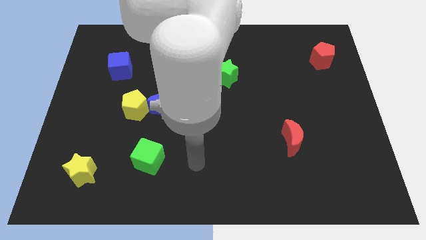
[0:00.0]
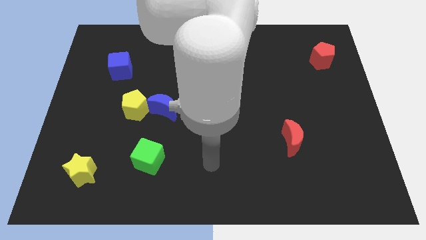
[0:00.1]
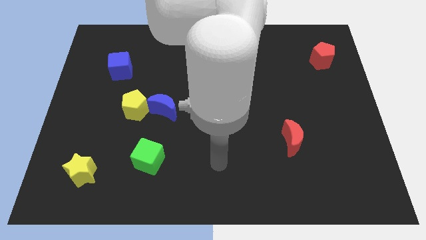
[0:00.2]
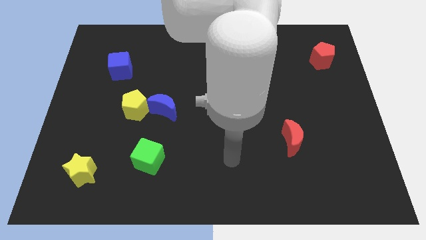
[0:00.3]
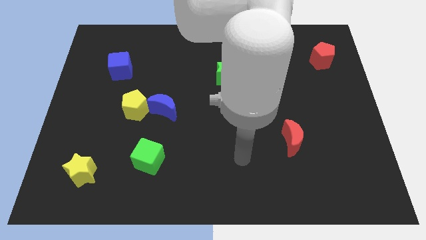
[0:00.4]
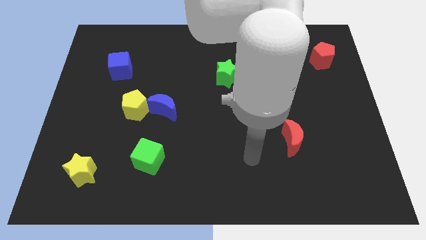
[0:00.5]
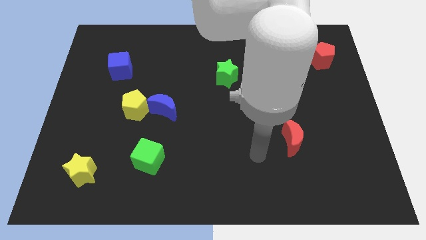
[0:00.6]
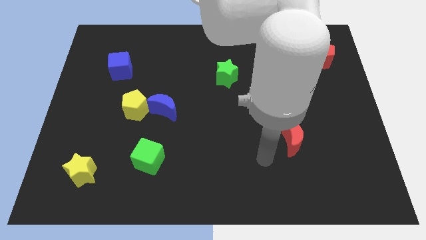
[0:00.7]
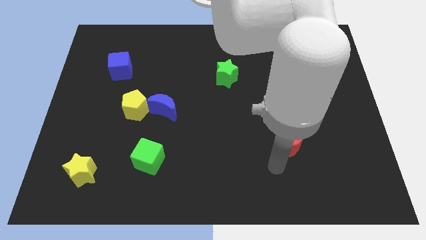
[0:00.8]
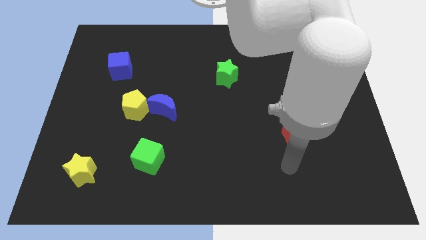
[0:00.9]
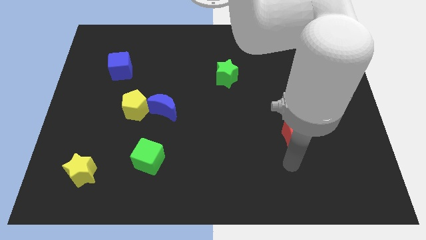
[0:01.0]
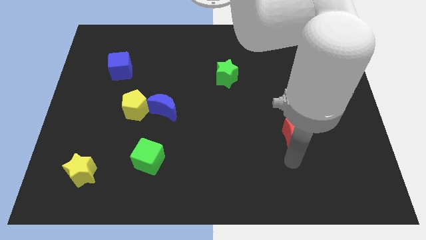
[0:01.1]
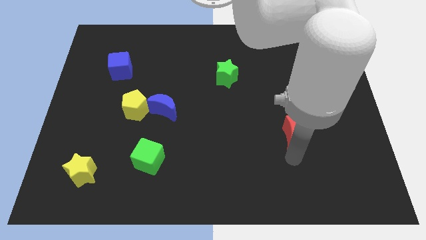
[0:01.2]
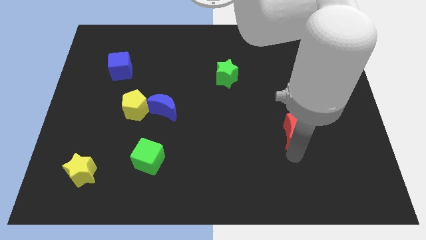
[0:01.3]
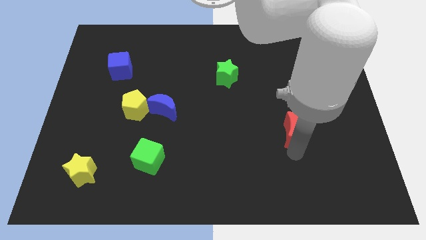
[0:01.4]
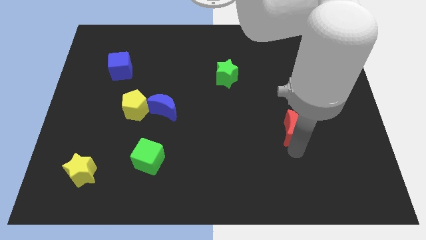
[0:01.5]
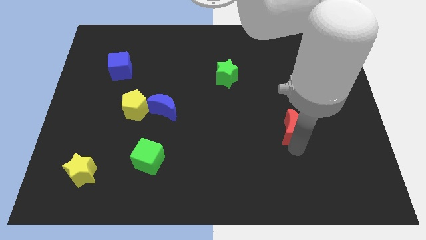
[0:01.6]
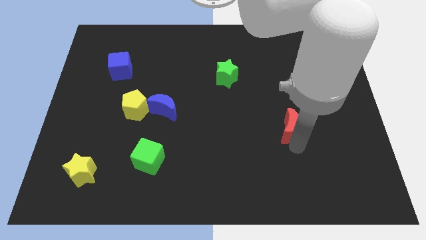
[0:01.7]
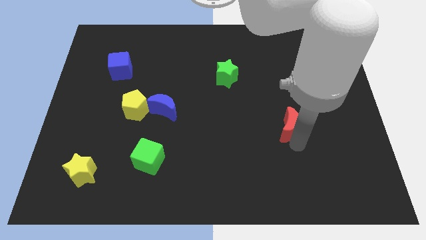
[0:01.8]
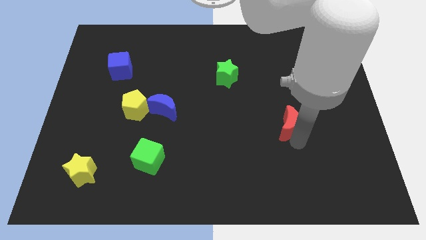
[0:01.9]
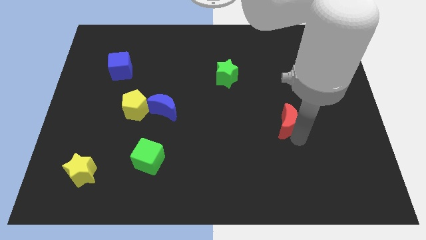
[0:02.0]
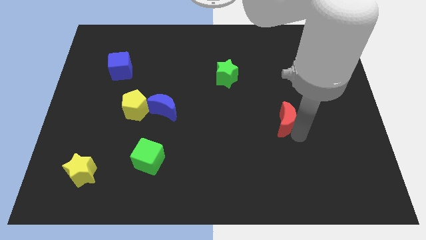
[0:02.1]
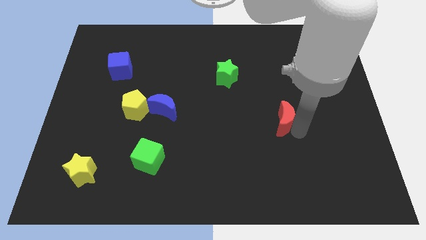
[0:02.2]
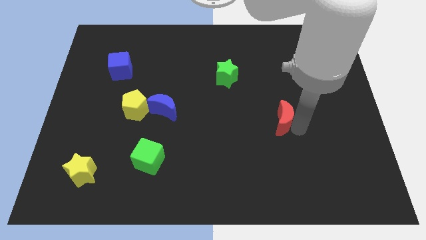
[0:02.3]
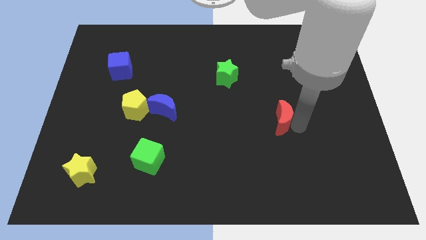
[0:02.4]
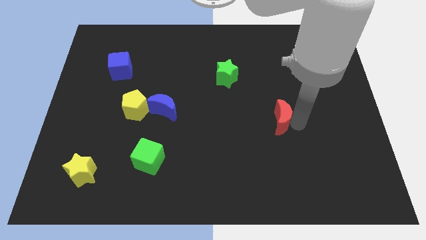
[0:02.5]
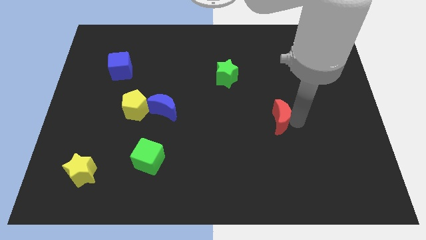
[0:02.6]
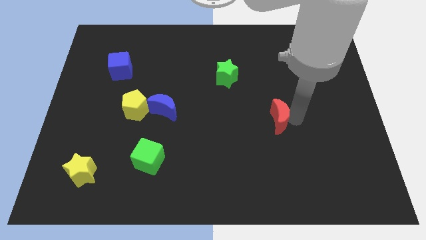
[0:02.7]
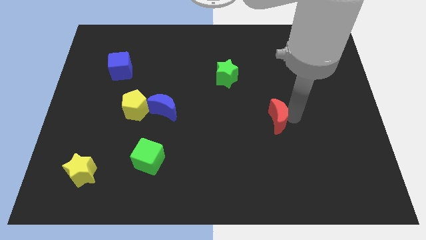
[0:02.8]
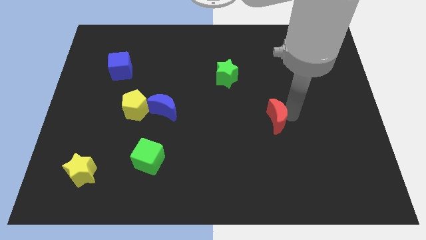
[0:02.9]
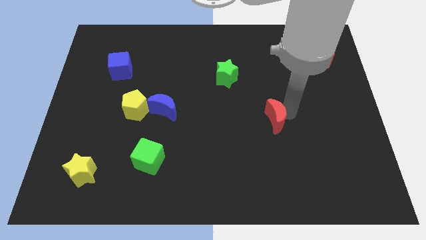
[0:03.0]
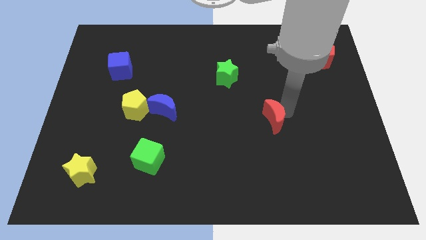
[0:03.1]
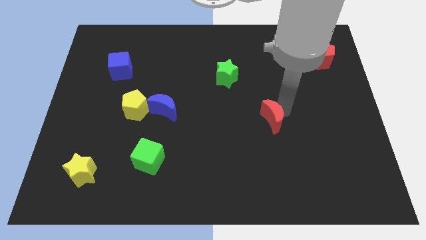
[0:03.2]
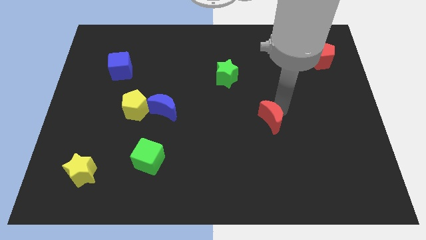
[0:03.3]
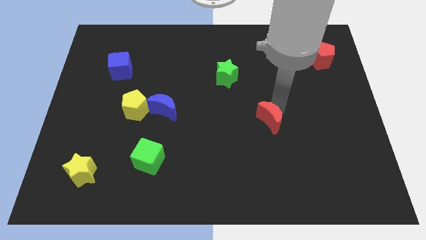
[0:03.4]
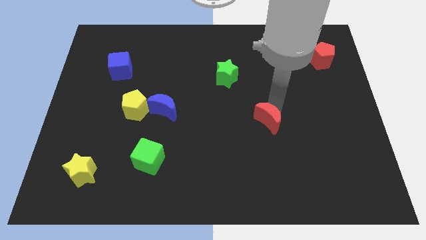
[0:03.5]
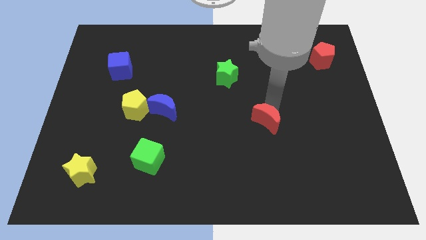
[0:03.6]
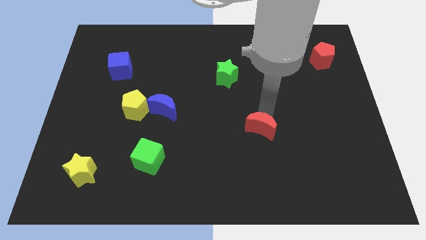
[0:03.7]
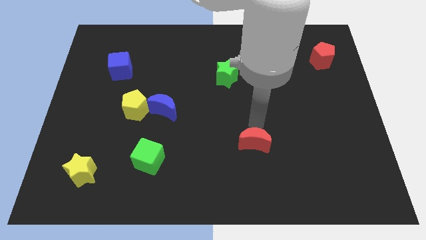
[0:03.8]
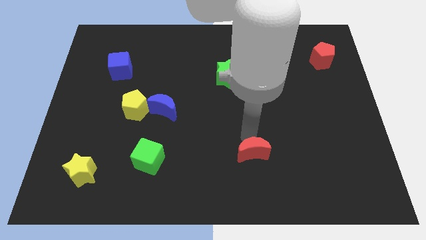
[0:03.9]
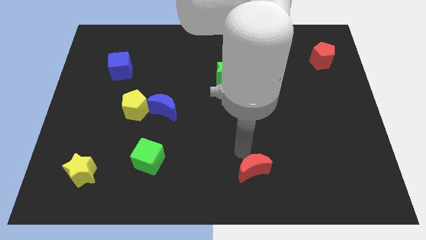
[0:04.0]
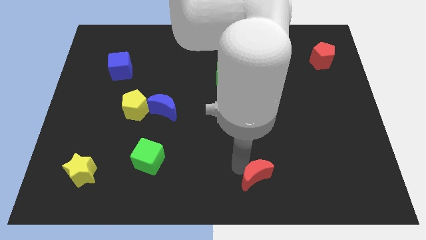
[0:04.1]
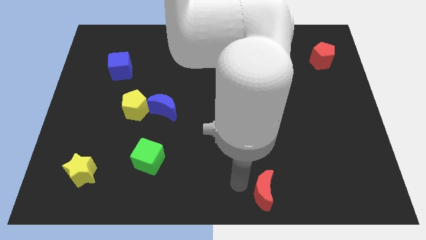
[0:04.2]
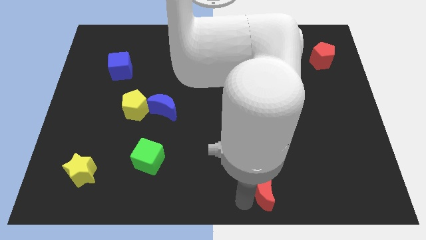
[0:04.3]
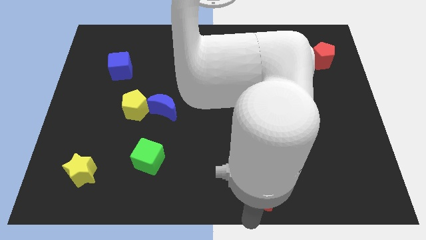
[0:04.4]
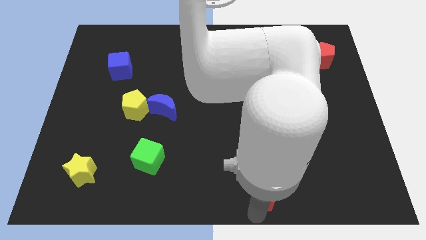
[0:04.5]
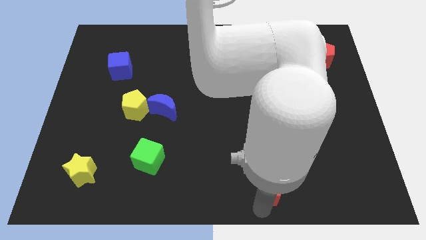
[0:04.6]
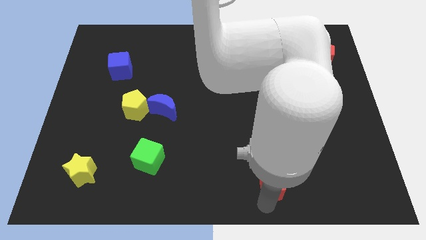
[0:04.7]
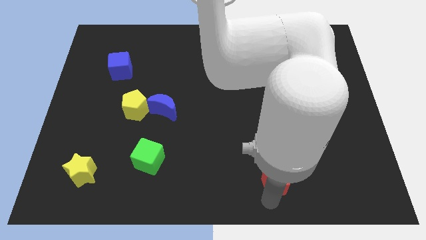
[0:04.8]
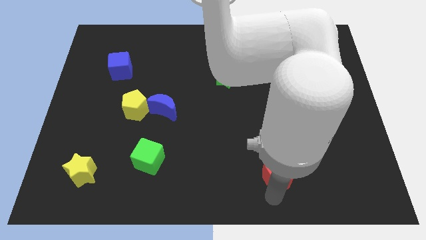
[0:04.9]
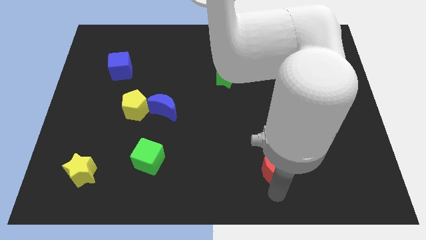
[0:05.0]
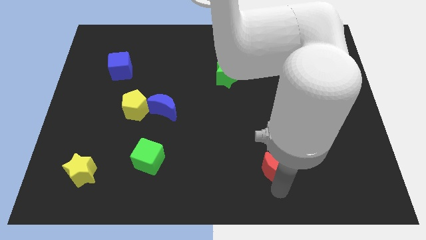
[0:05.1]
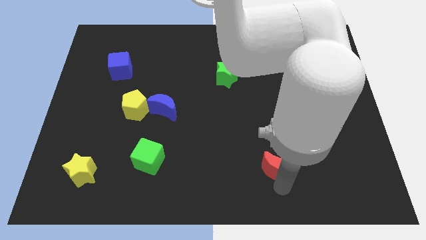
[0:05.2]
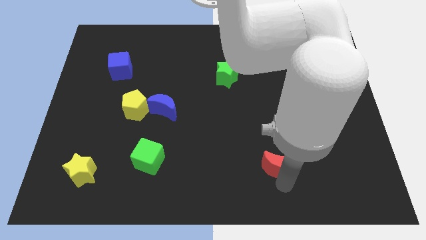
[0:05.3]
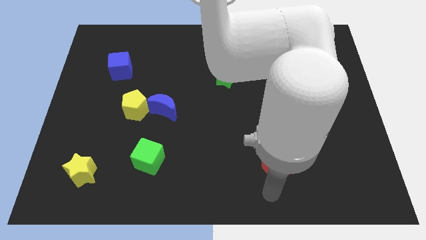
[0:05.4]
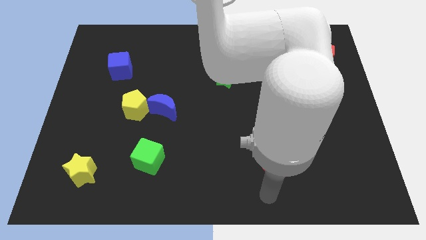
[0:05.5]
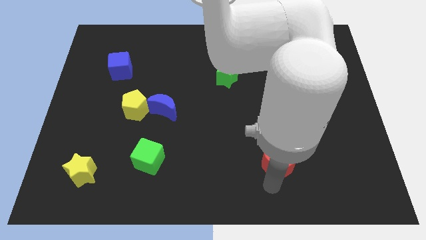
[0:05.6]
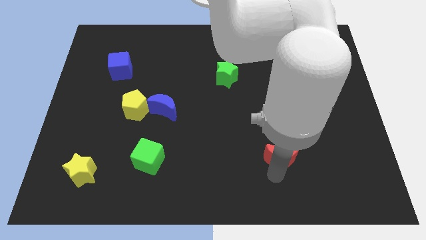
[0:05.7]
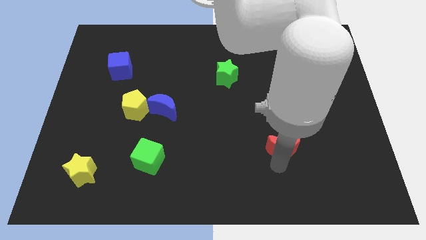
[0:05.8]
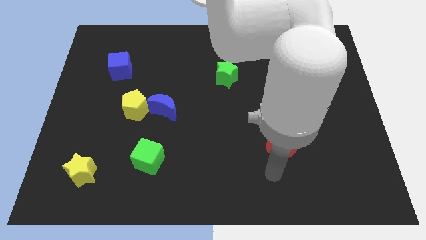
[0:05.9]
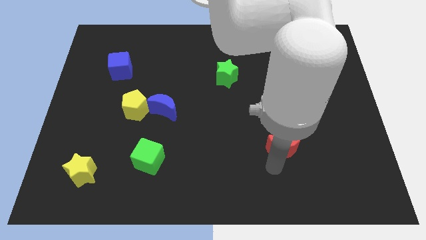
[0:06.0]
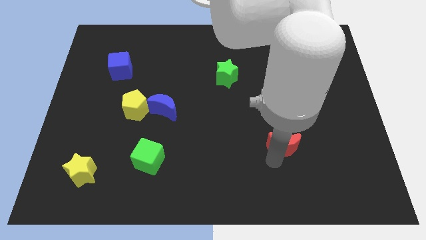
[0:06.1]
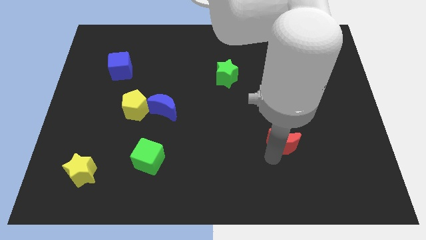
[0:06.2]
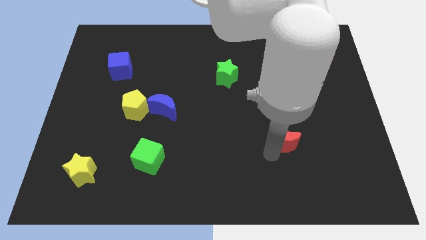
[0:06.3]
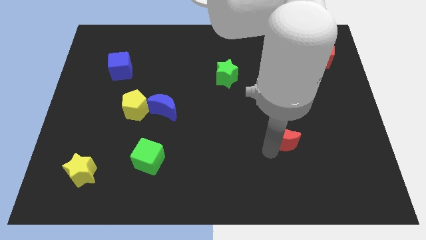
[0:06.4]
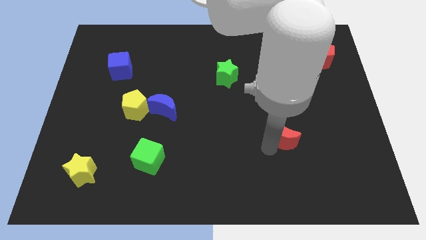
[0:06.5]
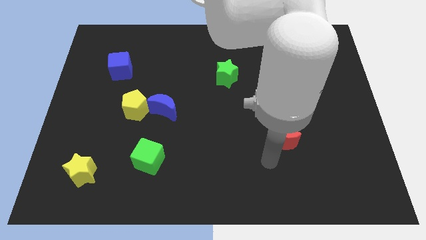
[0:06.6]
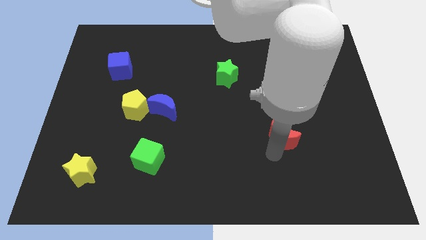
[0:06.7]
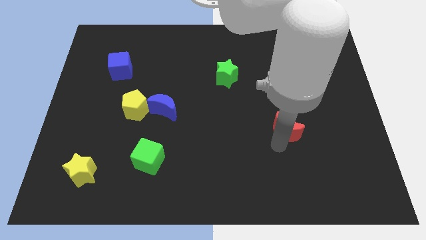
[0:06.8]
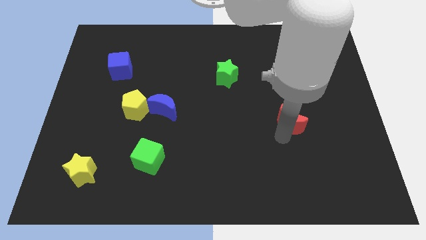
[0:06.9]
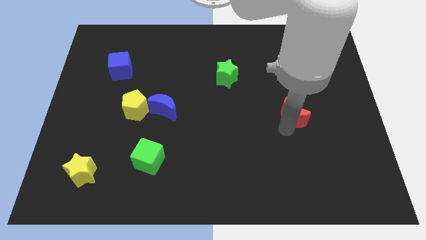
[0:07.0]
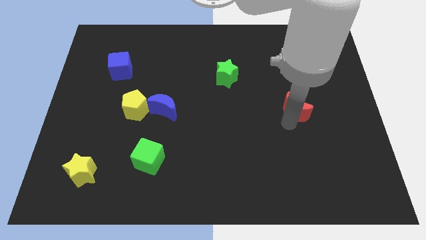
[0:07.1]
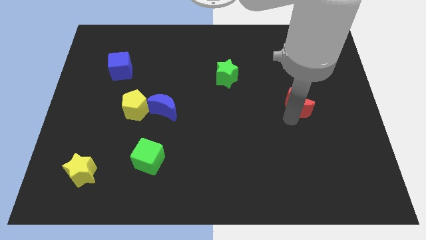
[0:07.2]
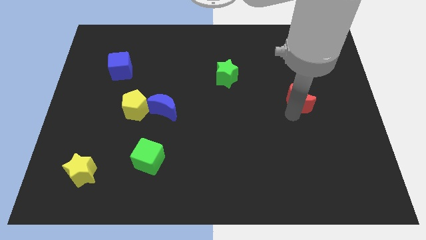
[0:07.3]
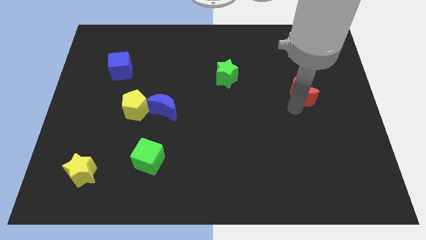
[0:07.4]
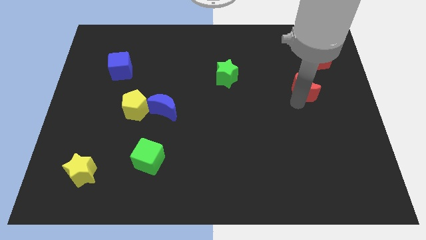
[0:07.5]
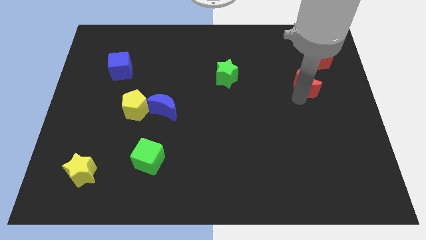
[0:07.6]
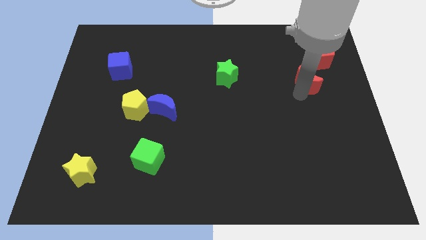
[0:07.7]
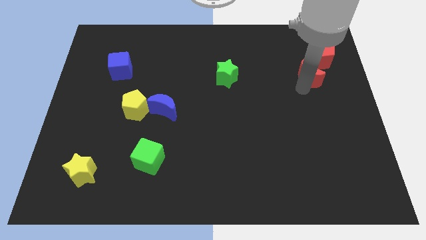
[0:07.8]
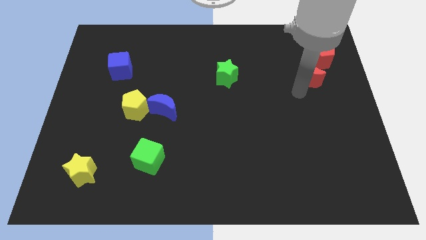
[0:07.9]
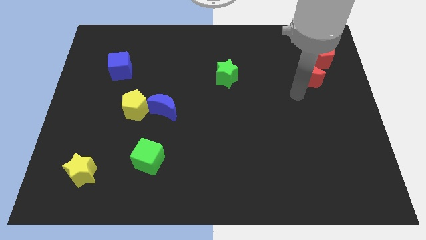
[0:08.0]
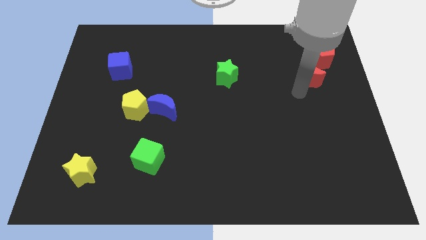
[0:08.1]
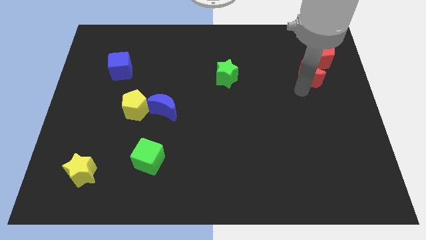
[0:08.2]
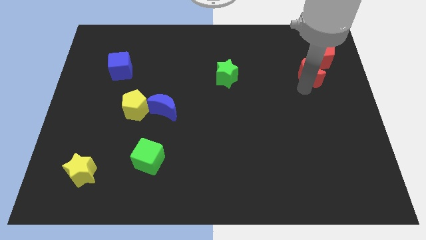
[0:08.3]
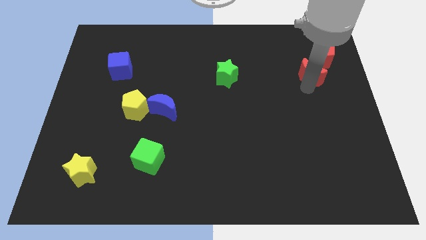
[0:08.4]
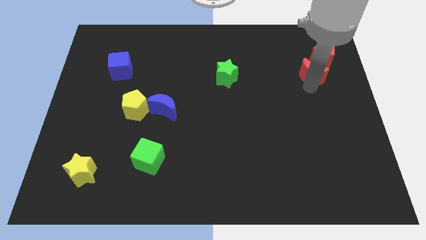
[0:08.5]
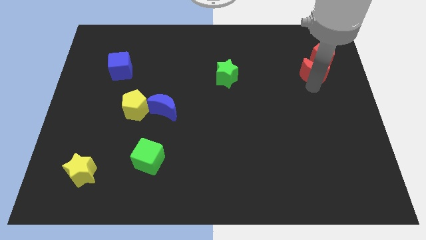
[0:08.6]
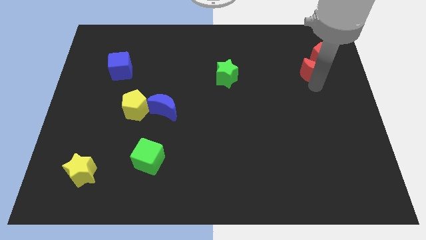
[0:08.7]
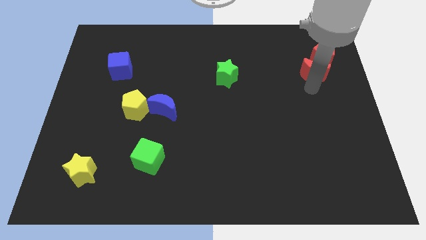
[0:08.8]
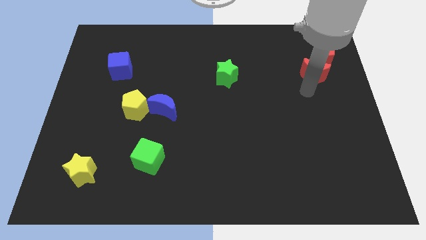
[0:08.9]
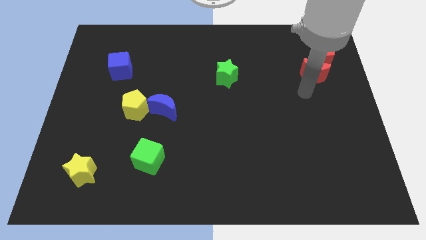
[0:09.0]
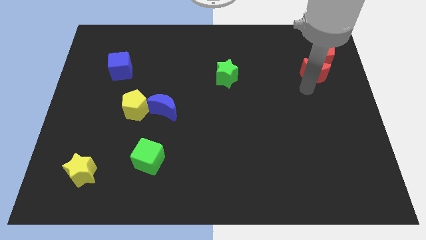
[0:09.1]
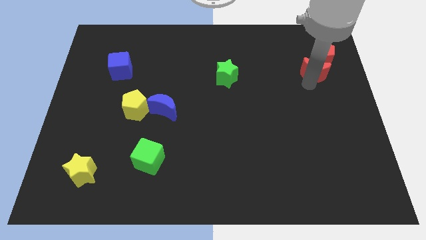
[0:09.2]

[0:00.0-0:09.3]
slide the red moon to the red pentagon
